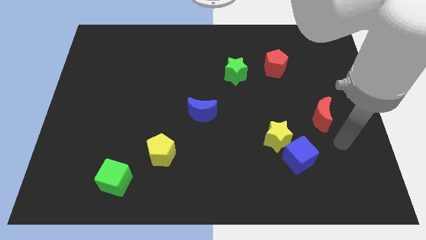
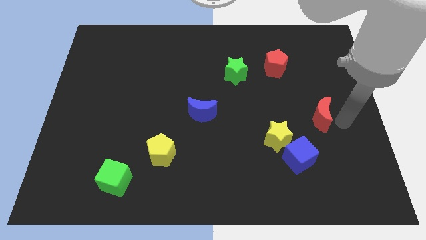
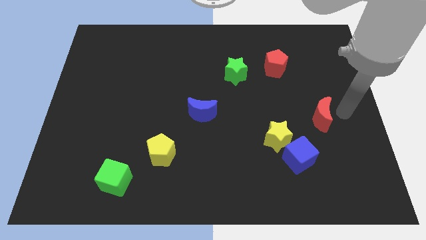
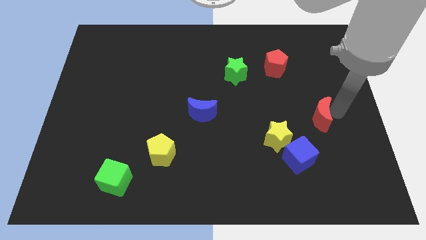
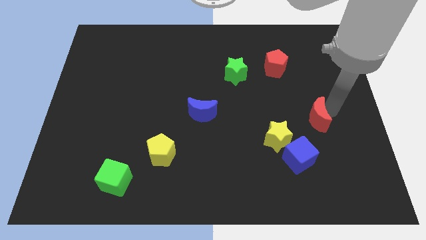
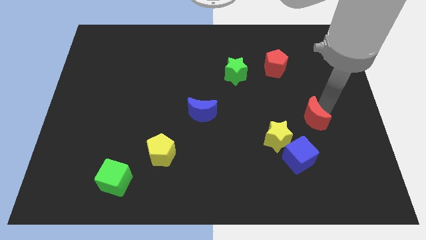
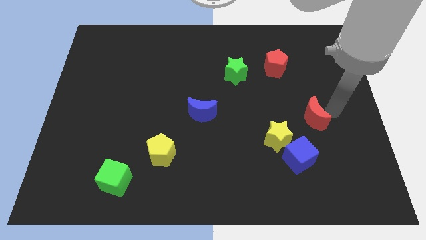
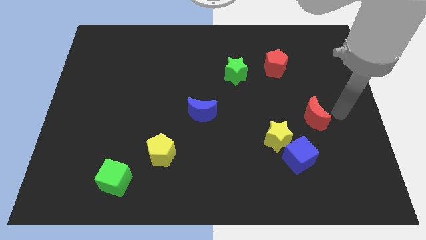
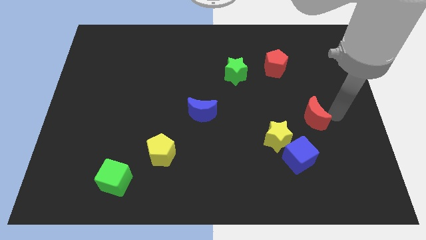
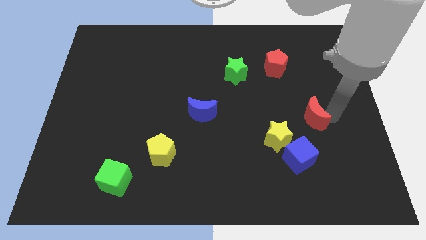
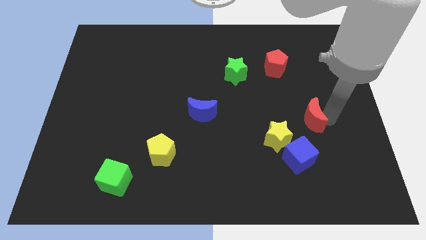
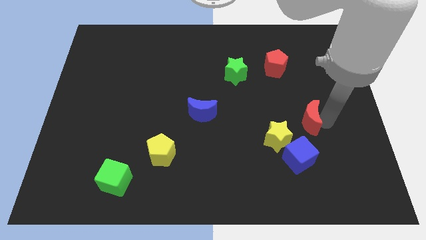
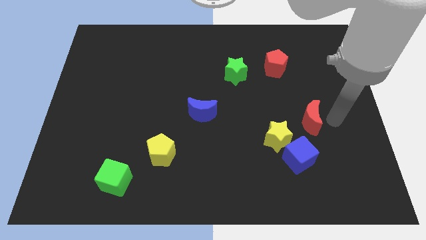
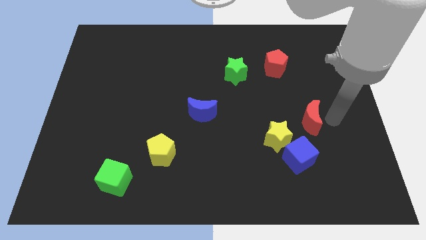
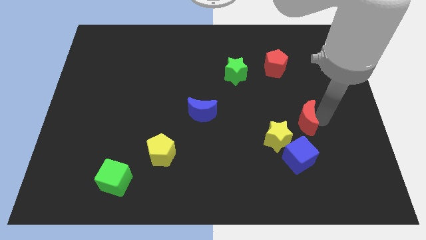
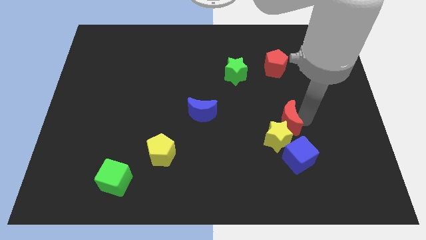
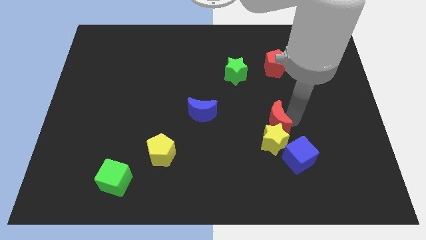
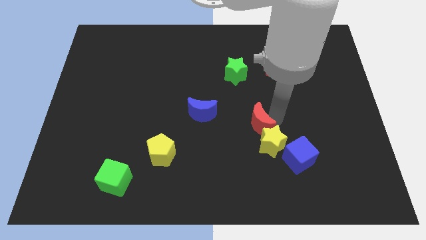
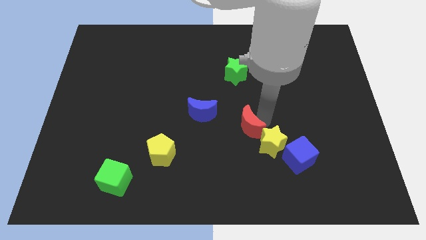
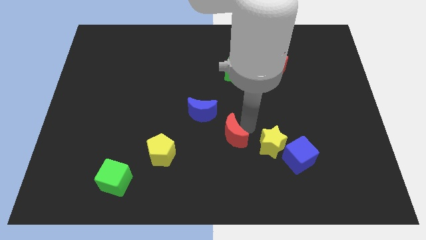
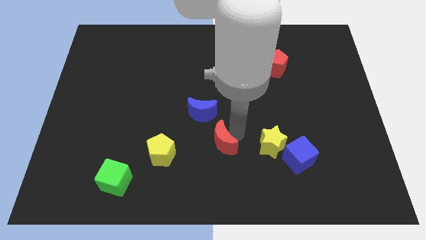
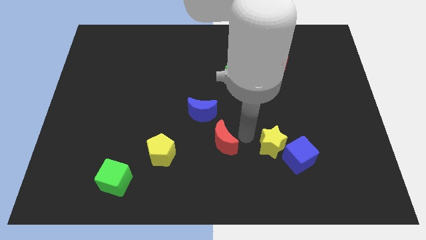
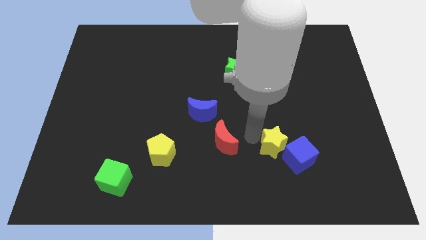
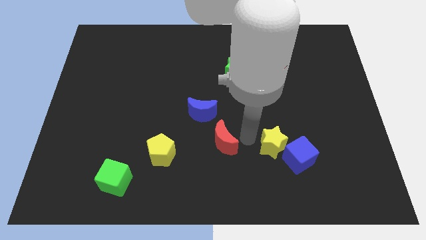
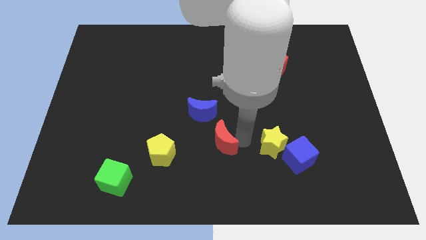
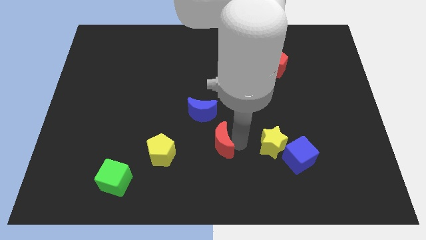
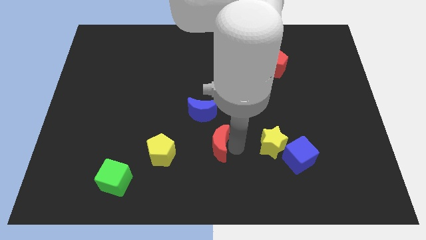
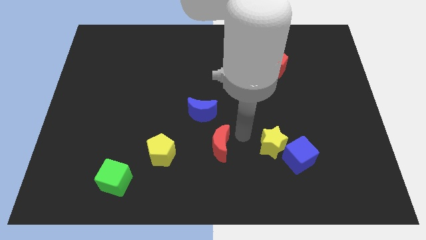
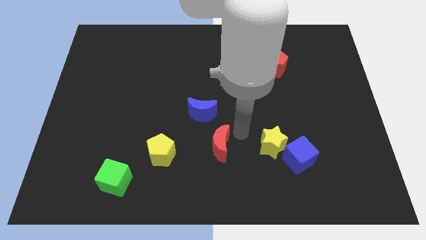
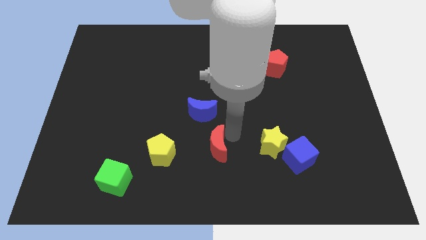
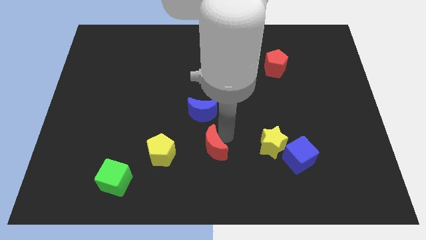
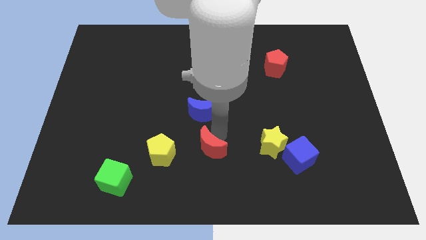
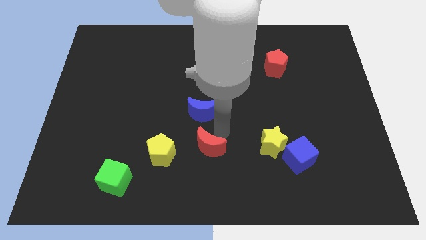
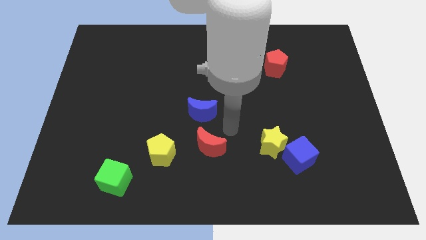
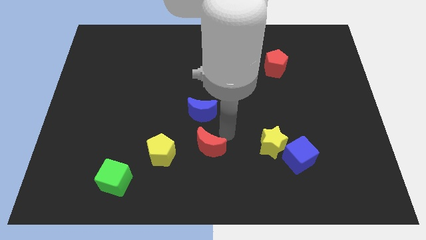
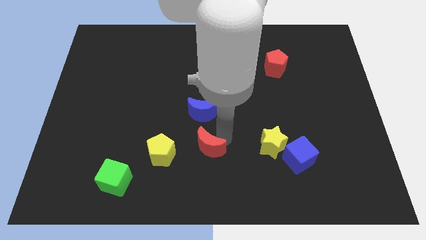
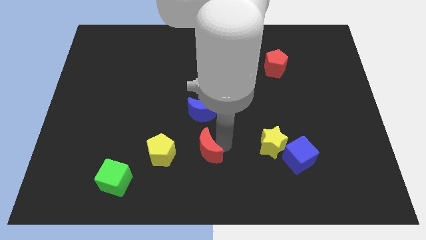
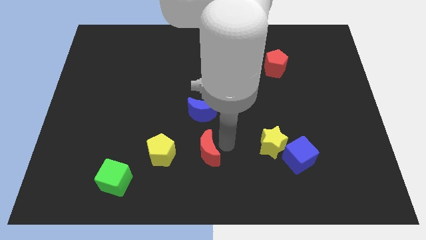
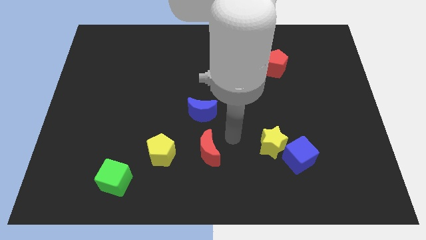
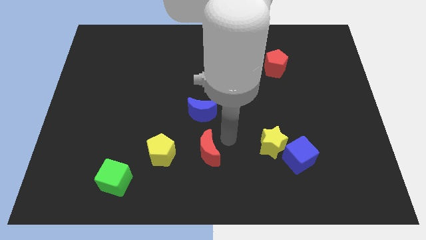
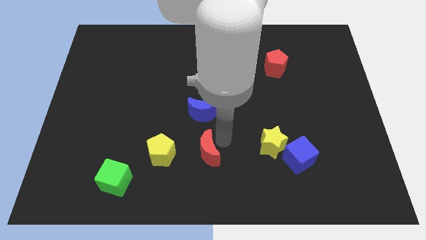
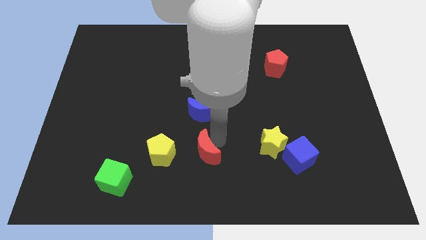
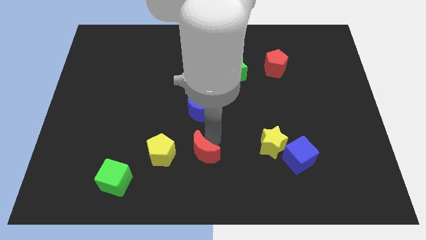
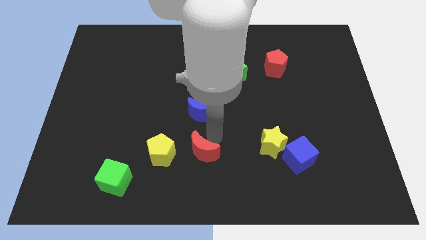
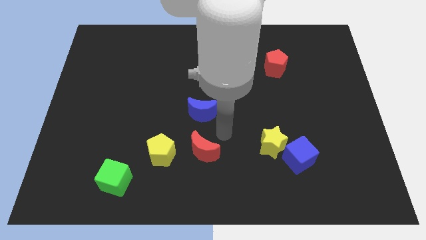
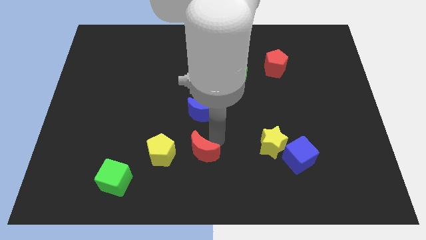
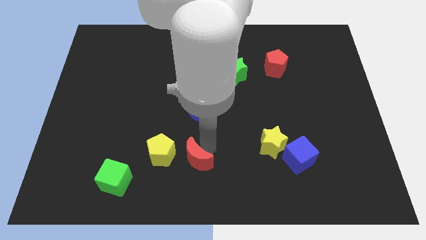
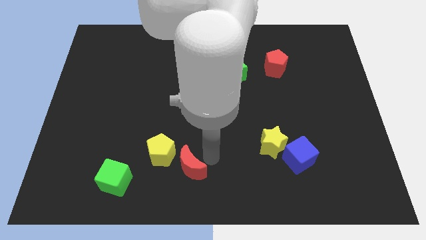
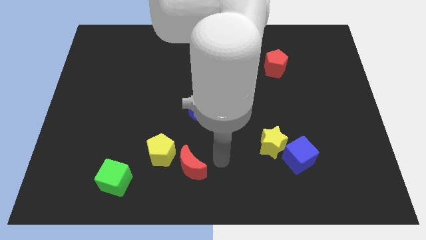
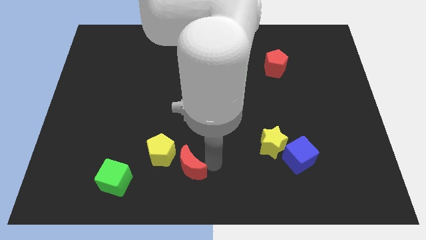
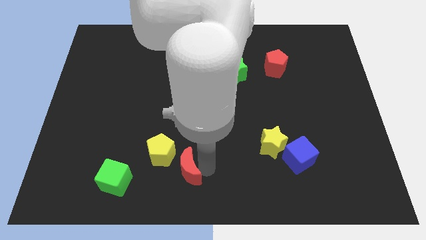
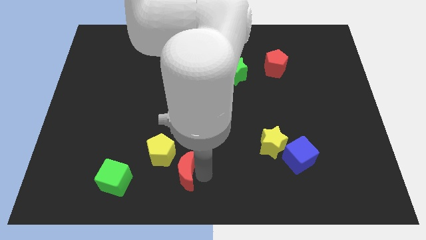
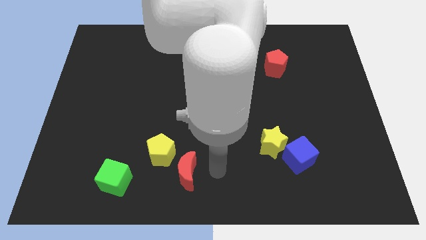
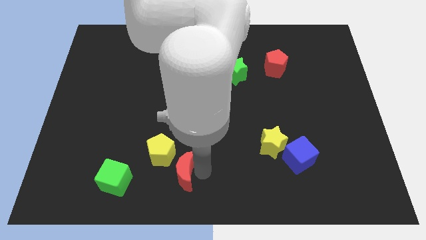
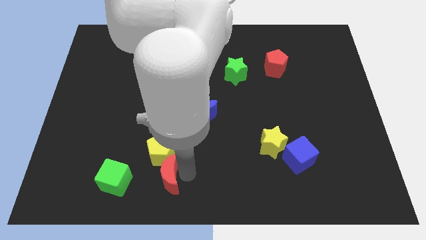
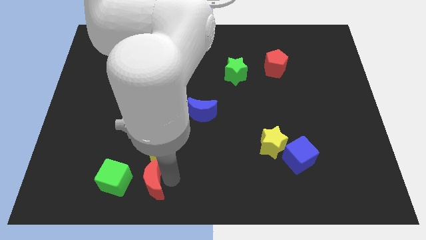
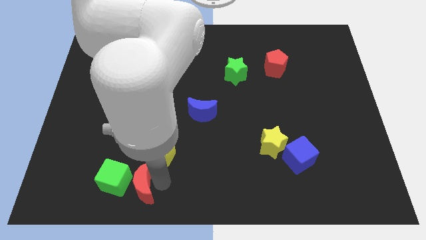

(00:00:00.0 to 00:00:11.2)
move the red moon close to the green cube

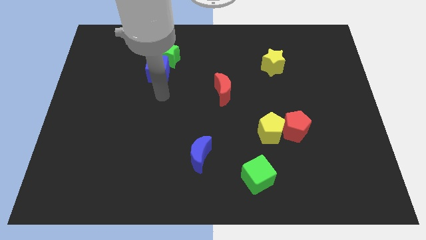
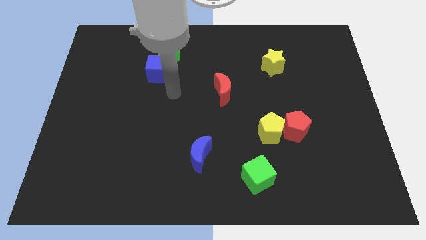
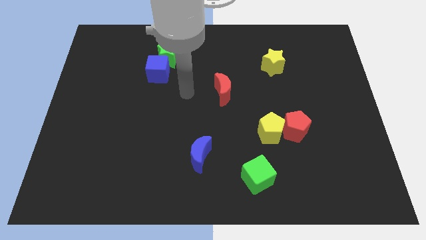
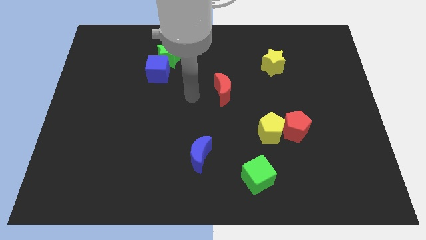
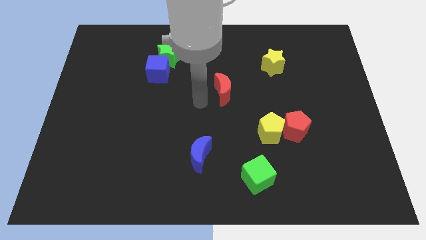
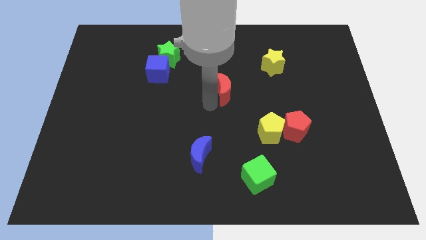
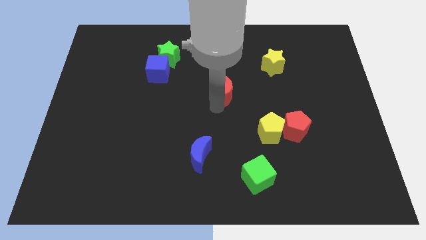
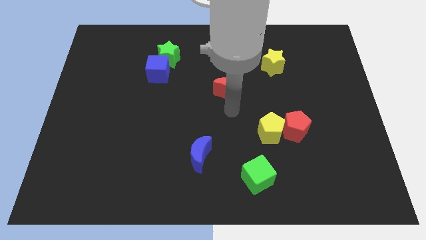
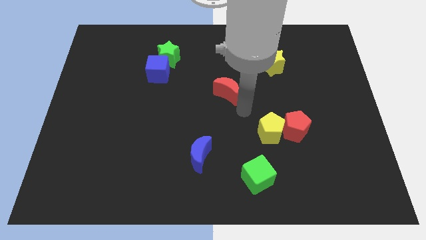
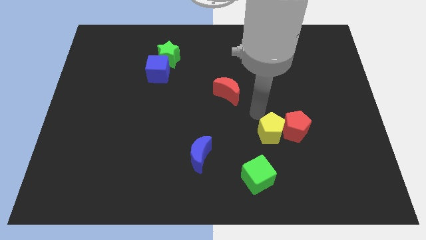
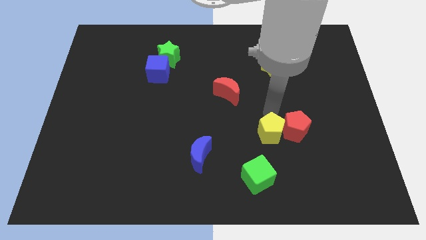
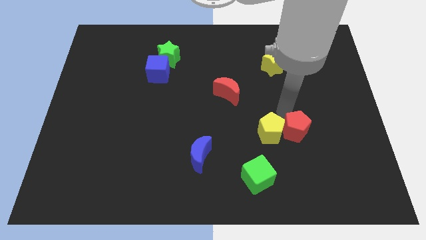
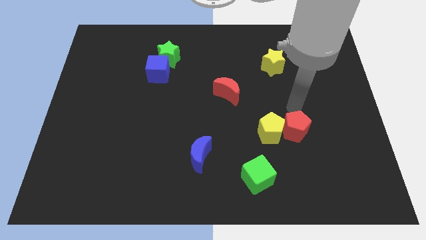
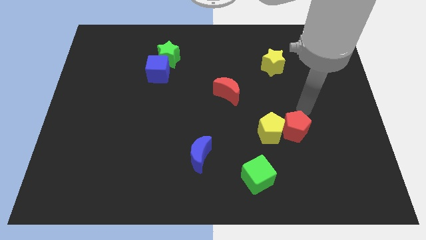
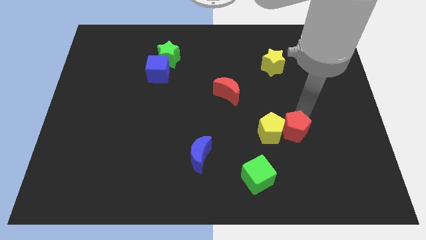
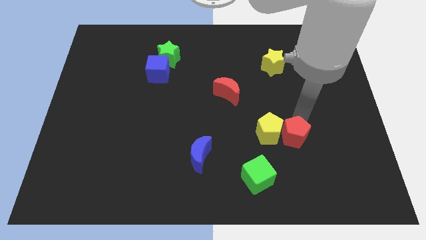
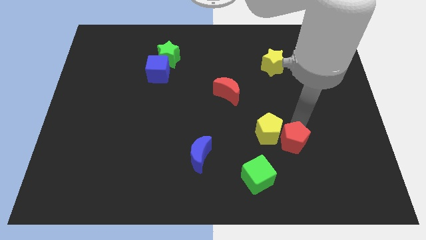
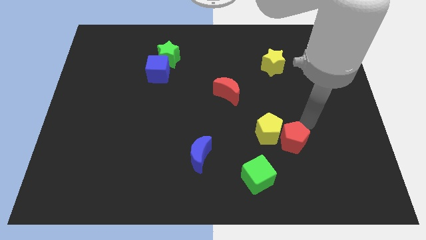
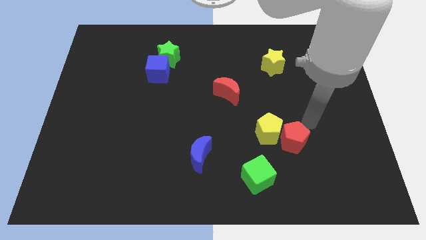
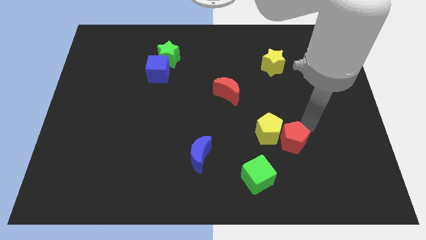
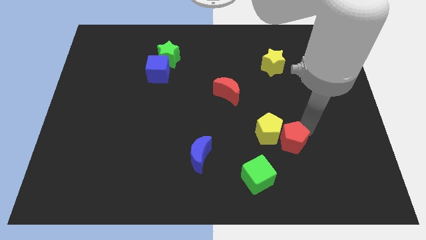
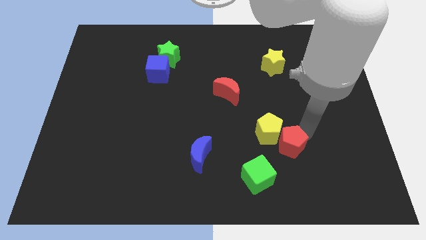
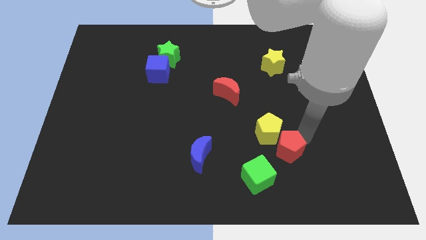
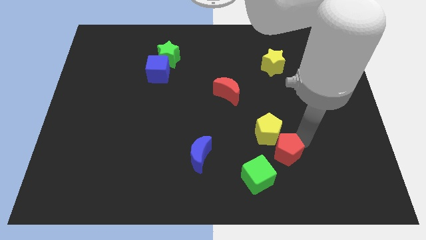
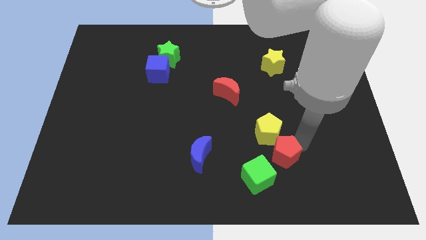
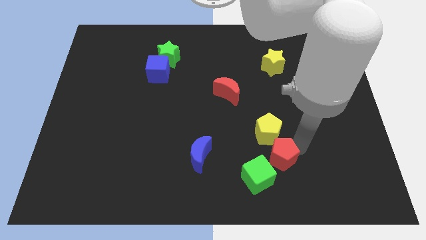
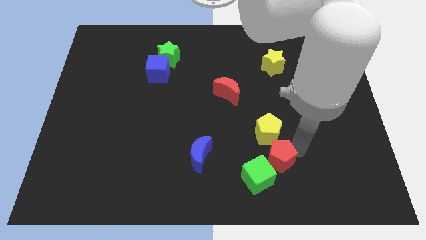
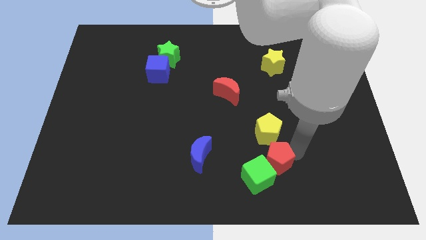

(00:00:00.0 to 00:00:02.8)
put the red pentagon close to the green cube
